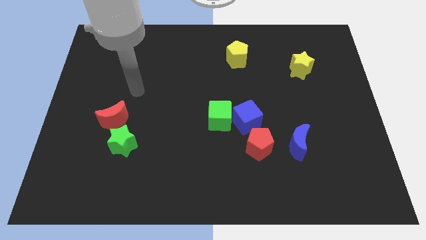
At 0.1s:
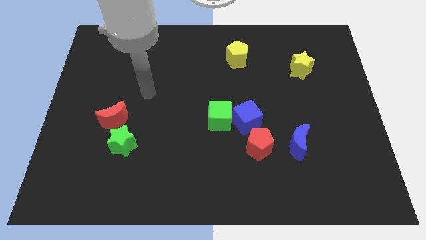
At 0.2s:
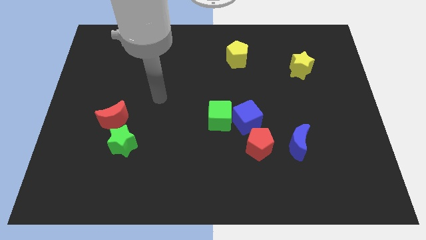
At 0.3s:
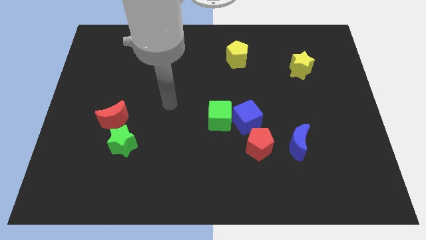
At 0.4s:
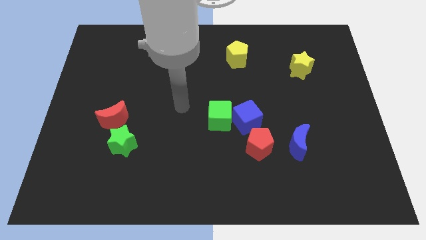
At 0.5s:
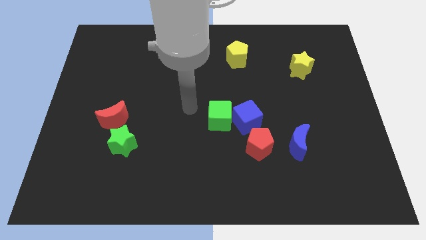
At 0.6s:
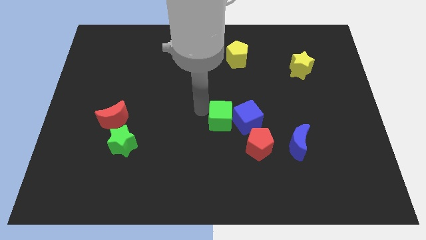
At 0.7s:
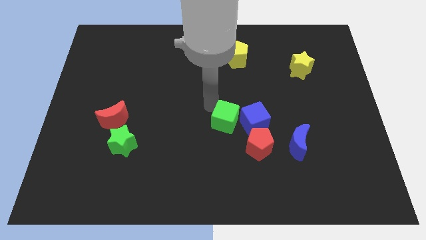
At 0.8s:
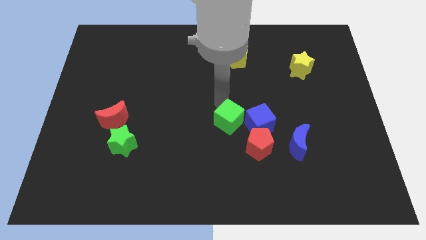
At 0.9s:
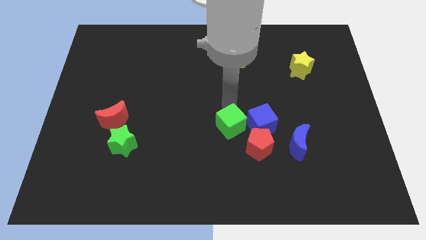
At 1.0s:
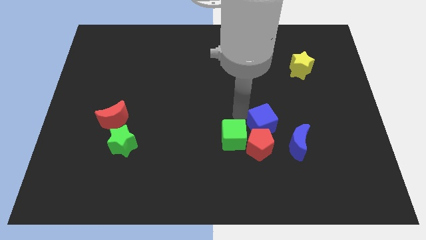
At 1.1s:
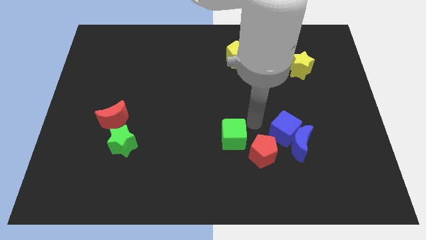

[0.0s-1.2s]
separate the green cube from the blue cube

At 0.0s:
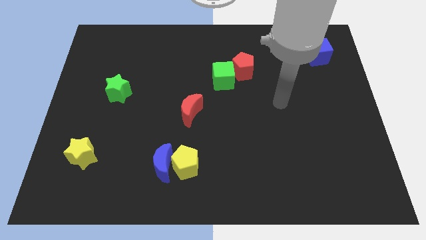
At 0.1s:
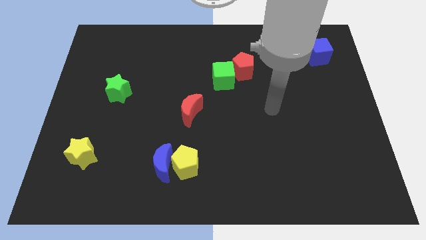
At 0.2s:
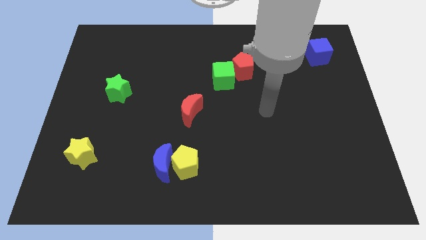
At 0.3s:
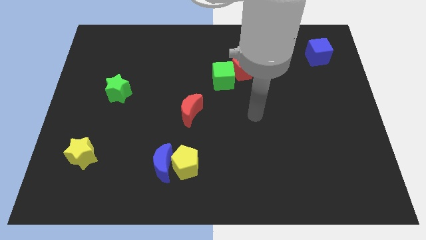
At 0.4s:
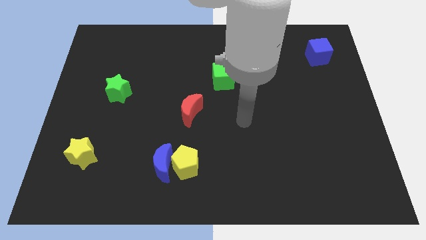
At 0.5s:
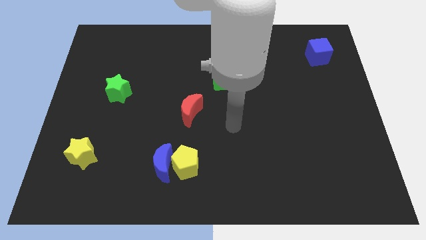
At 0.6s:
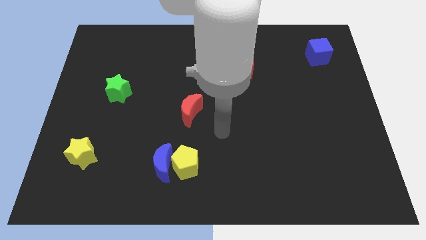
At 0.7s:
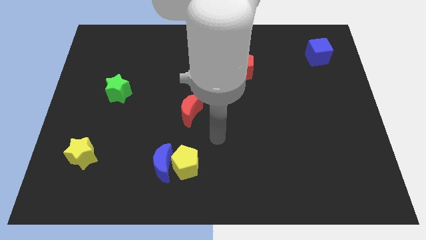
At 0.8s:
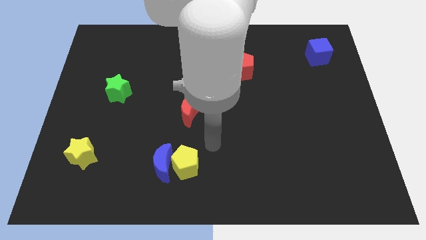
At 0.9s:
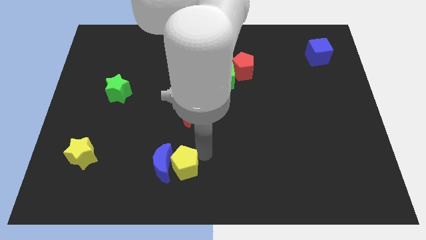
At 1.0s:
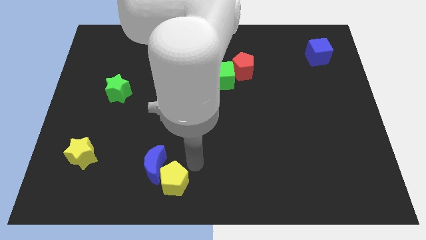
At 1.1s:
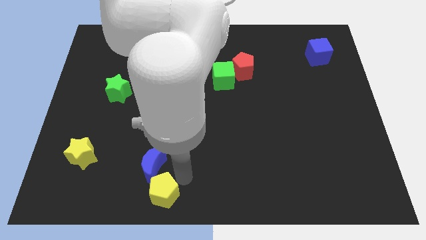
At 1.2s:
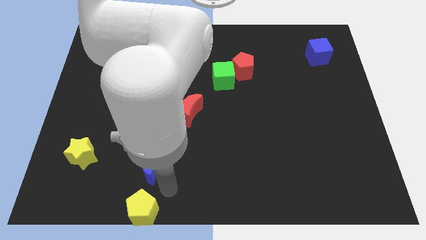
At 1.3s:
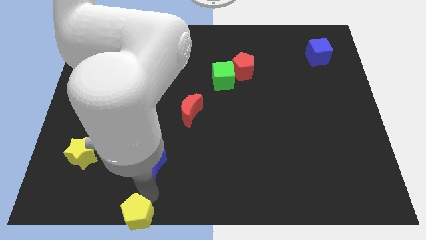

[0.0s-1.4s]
move the blue moon away from the yellow pentagon

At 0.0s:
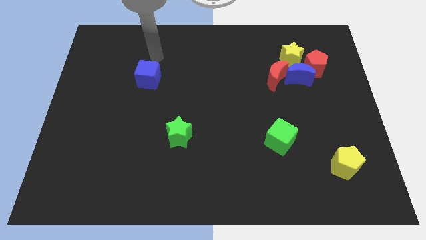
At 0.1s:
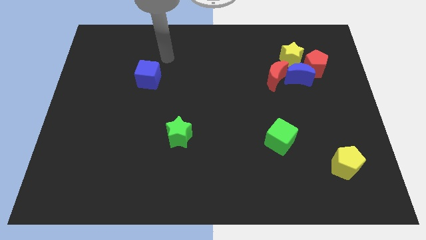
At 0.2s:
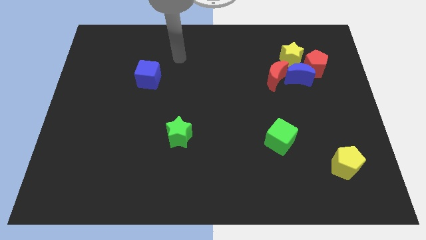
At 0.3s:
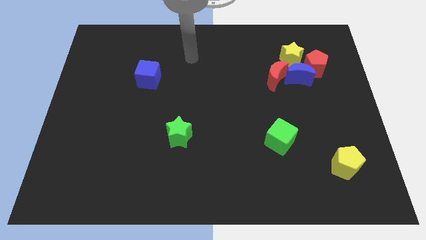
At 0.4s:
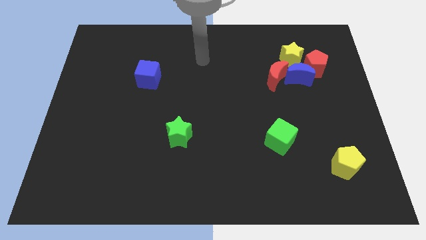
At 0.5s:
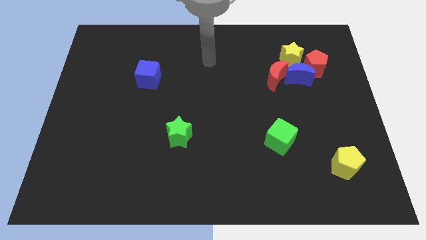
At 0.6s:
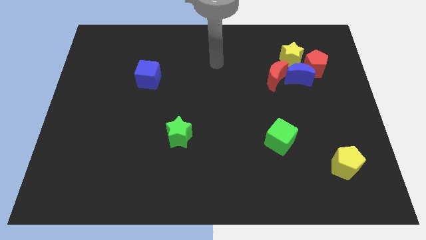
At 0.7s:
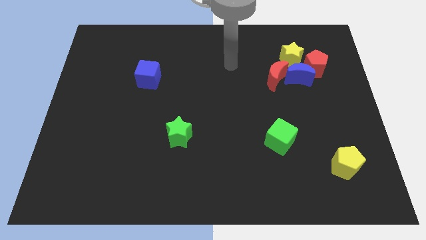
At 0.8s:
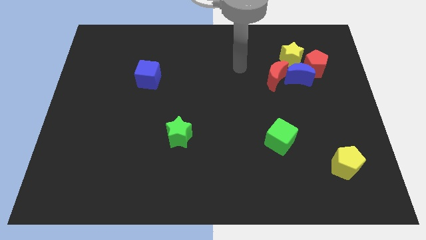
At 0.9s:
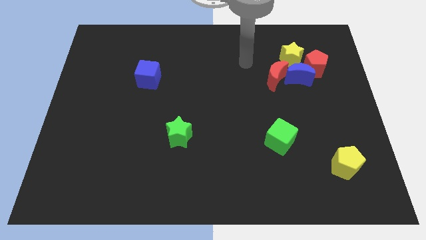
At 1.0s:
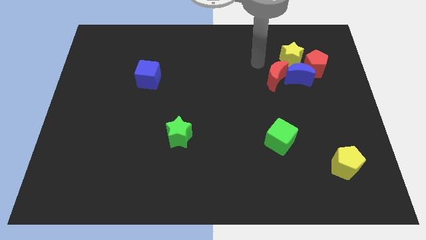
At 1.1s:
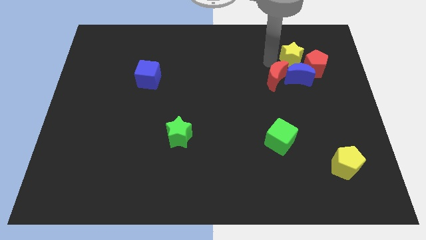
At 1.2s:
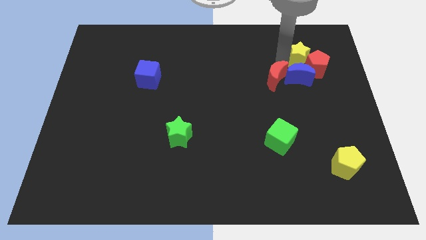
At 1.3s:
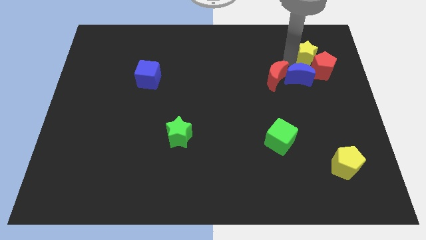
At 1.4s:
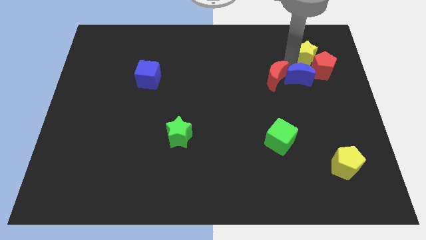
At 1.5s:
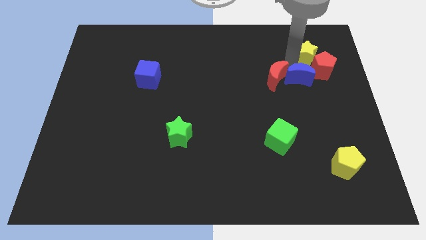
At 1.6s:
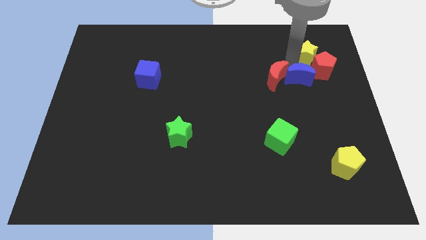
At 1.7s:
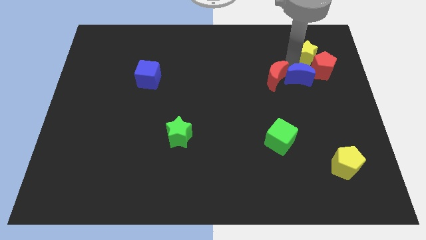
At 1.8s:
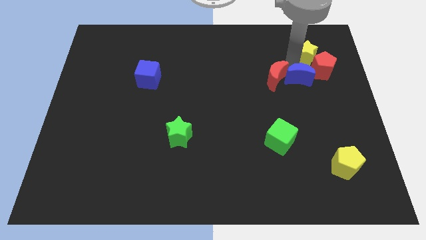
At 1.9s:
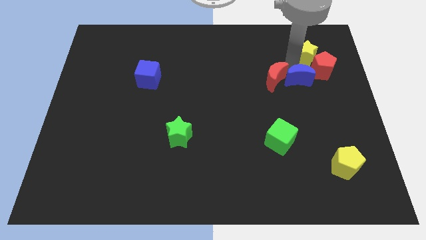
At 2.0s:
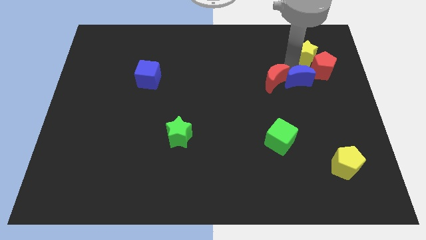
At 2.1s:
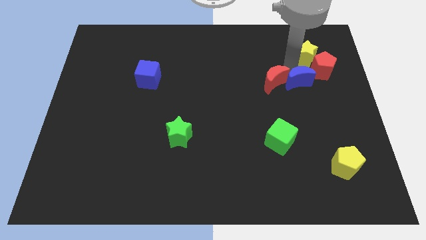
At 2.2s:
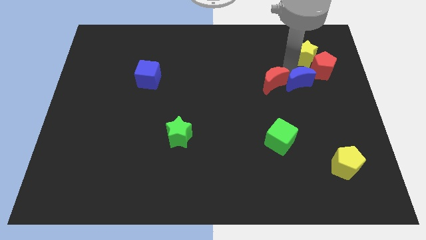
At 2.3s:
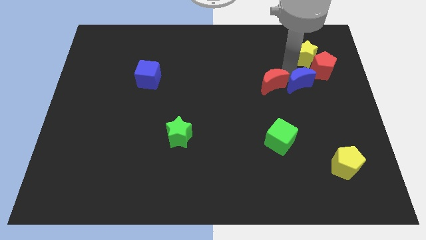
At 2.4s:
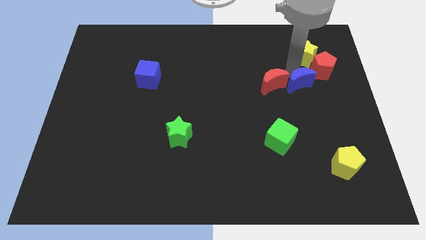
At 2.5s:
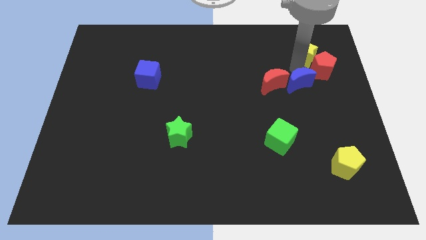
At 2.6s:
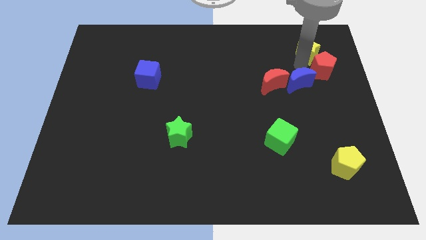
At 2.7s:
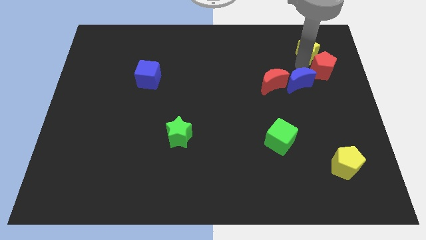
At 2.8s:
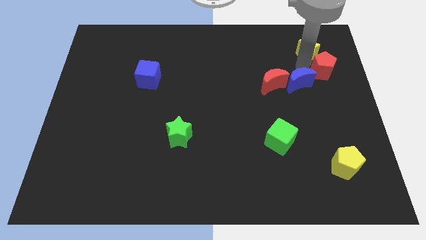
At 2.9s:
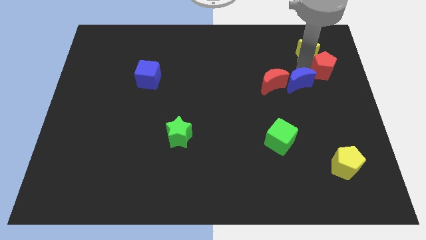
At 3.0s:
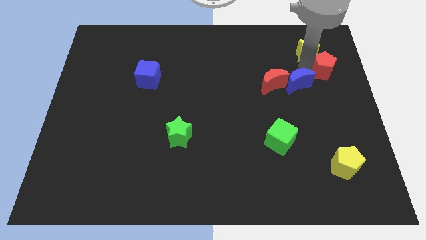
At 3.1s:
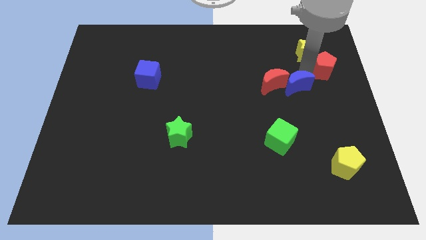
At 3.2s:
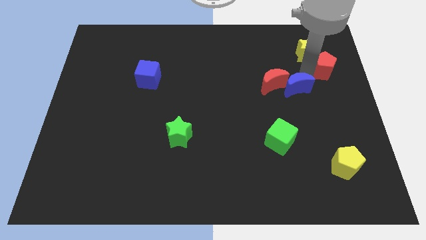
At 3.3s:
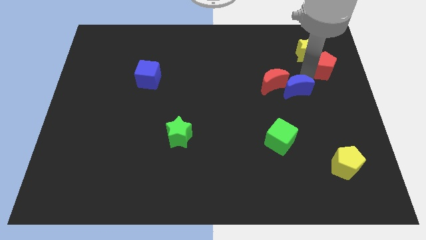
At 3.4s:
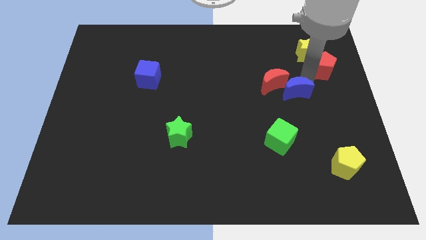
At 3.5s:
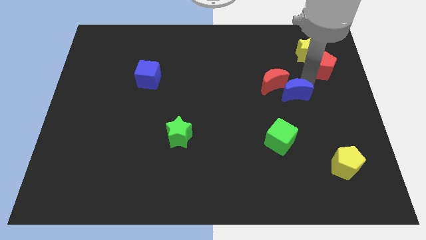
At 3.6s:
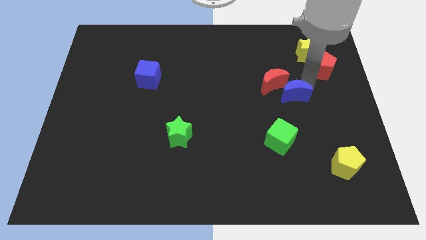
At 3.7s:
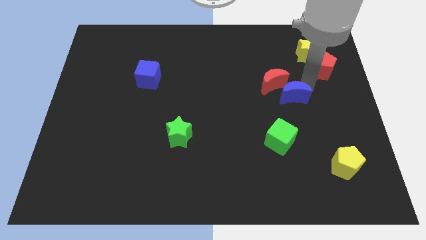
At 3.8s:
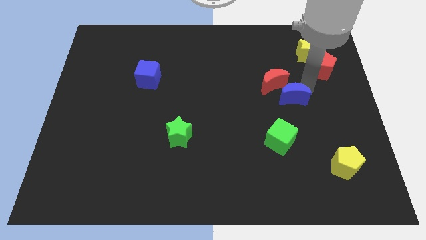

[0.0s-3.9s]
pull the blue moon apart from the red pentagon, red moon, and yellow star

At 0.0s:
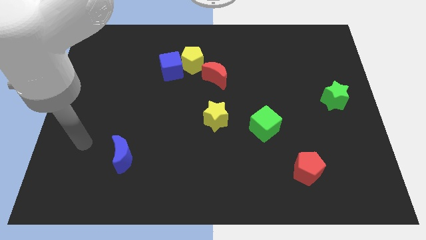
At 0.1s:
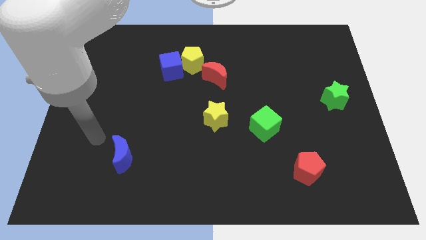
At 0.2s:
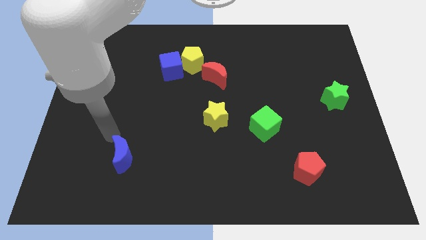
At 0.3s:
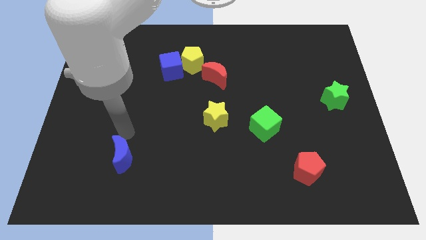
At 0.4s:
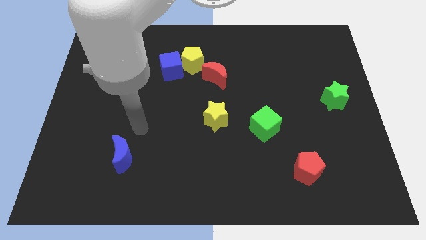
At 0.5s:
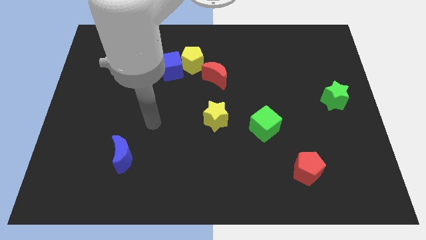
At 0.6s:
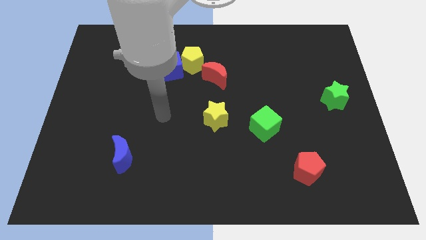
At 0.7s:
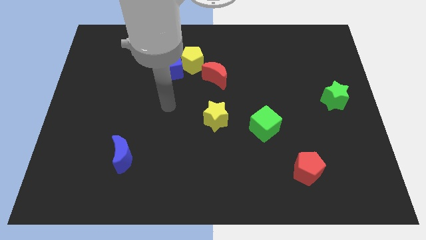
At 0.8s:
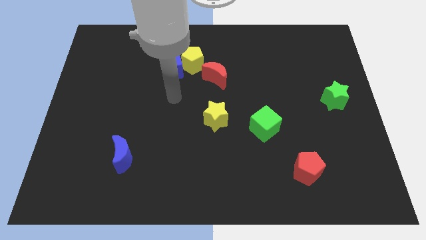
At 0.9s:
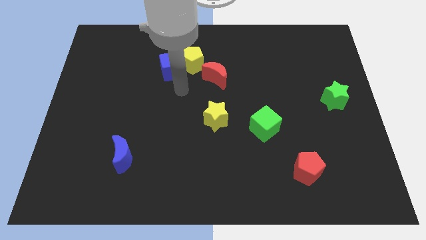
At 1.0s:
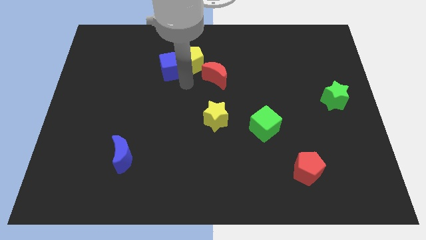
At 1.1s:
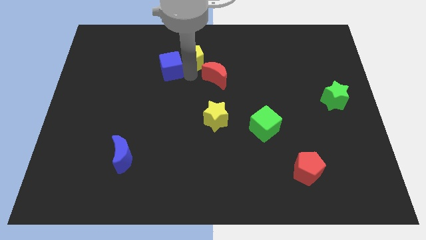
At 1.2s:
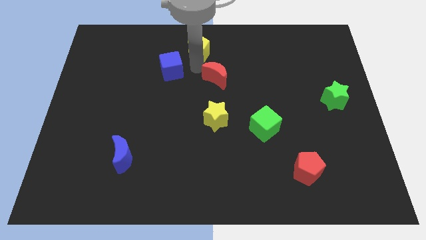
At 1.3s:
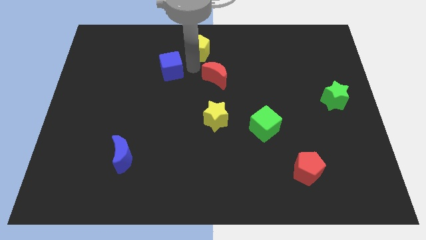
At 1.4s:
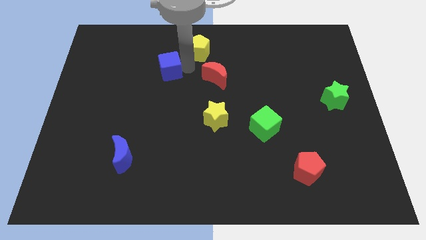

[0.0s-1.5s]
separate the blue cube from the yellow pentagon

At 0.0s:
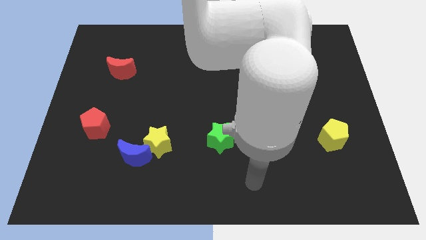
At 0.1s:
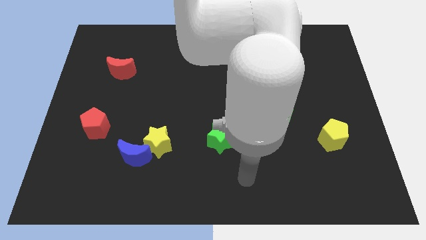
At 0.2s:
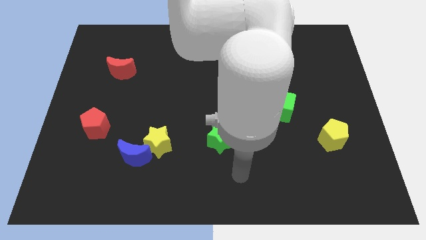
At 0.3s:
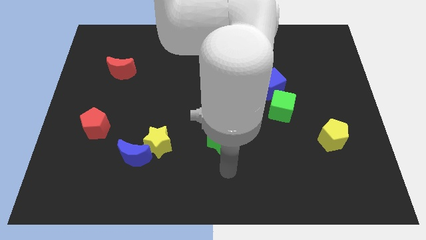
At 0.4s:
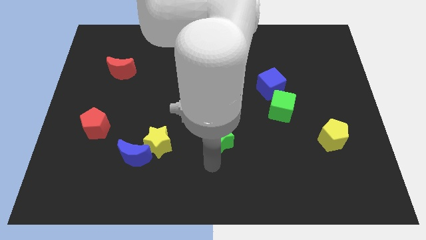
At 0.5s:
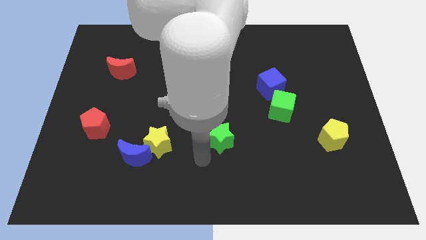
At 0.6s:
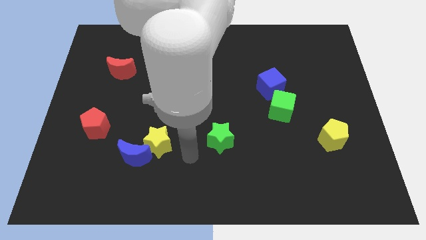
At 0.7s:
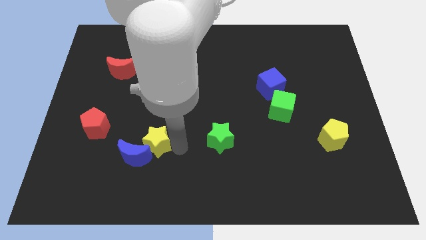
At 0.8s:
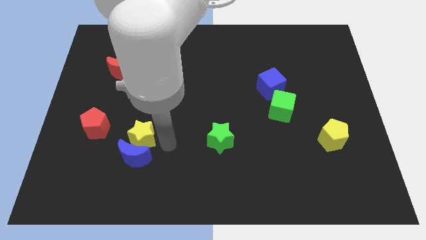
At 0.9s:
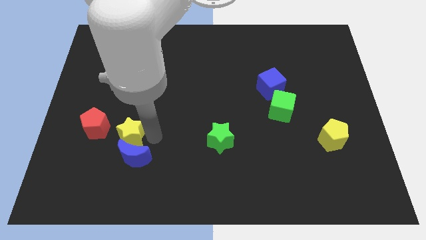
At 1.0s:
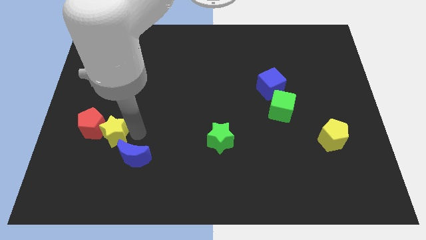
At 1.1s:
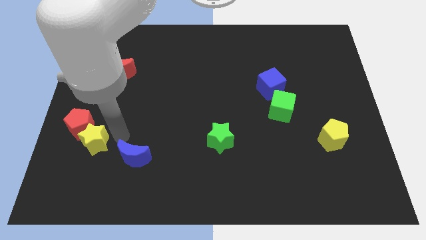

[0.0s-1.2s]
move the blue moon away from the yellow star
